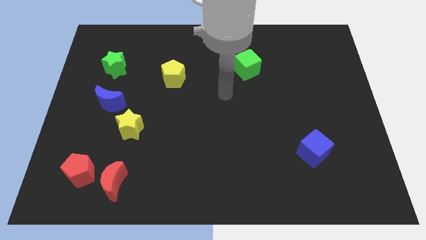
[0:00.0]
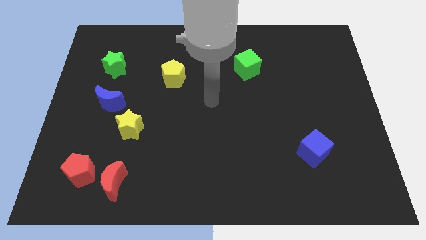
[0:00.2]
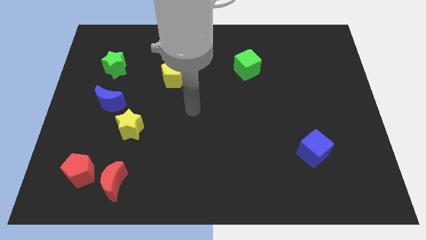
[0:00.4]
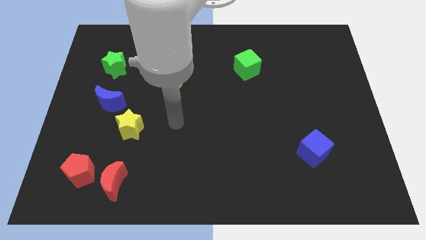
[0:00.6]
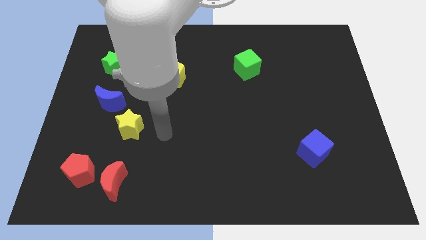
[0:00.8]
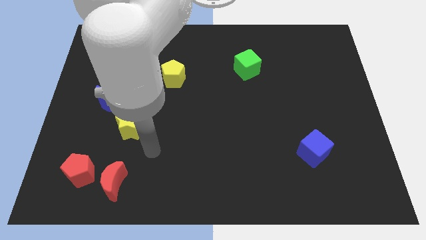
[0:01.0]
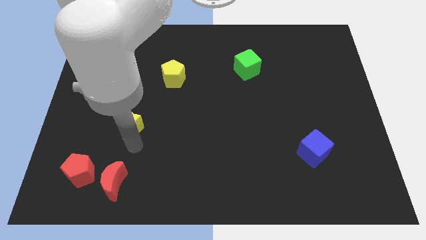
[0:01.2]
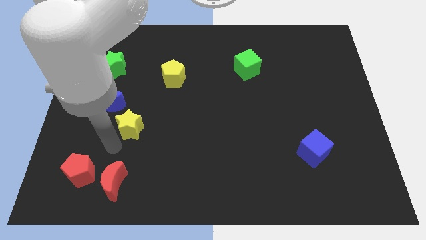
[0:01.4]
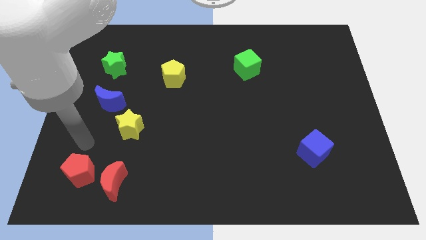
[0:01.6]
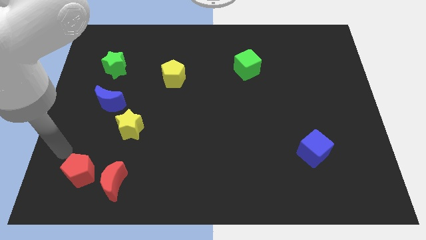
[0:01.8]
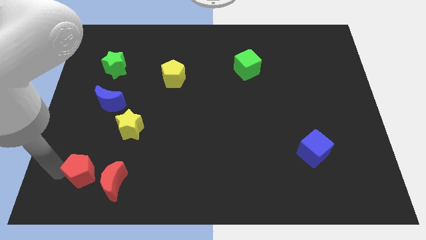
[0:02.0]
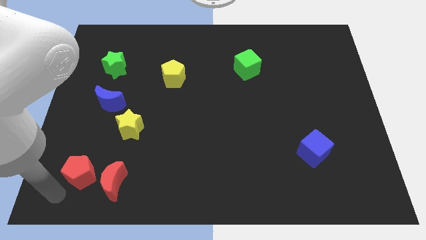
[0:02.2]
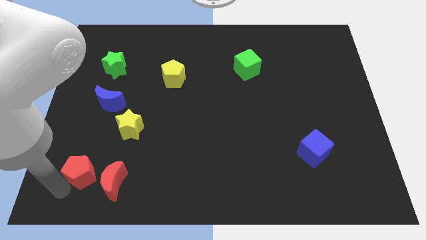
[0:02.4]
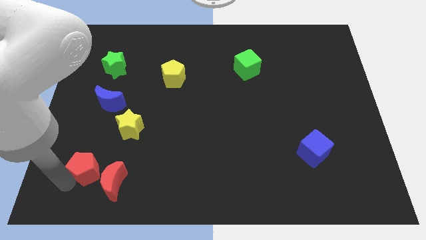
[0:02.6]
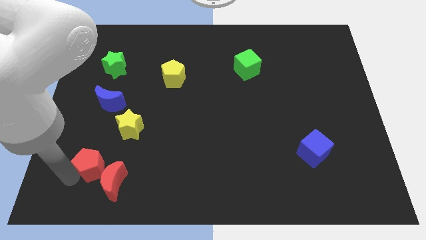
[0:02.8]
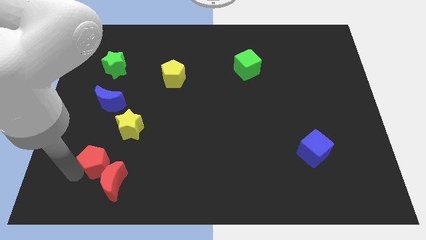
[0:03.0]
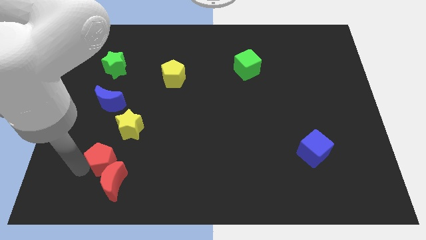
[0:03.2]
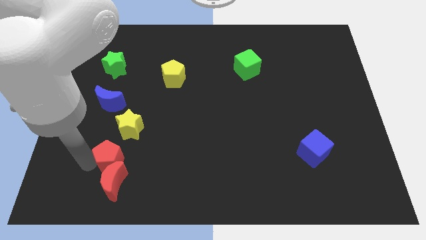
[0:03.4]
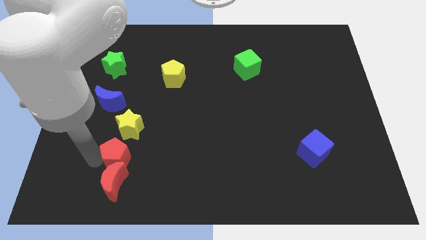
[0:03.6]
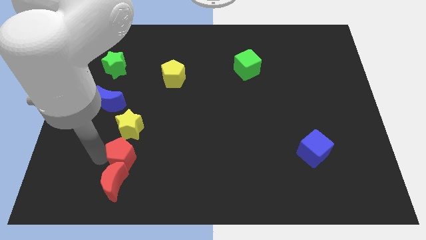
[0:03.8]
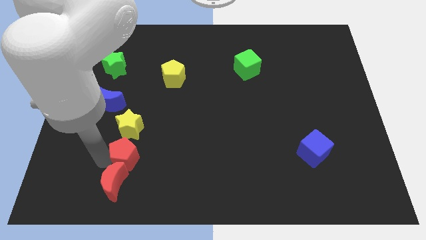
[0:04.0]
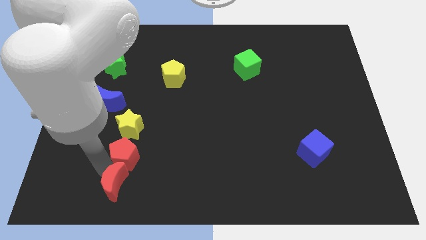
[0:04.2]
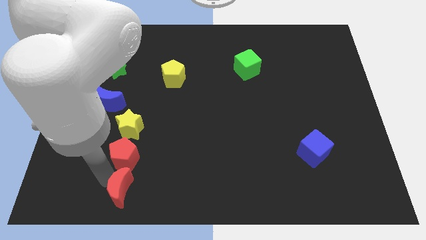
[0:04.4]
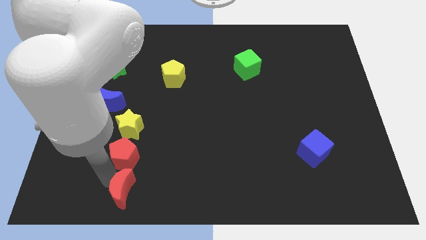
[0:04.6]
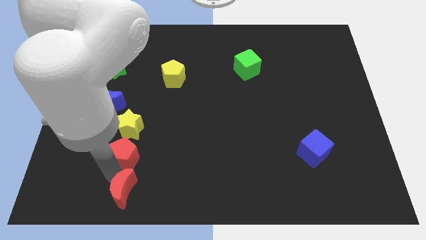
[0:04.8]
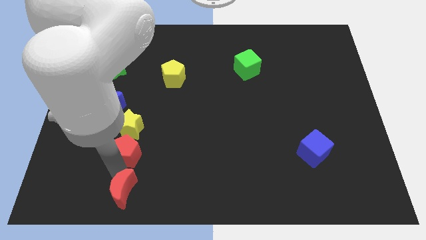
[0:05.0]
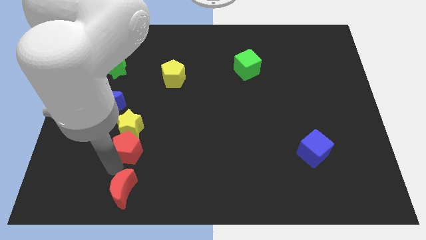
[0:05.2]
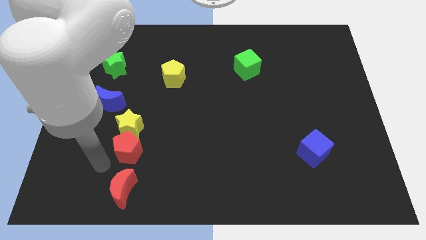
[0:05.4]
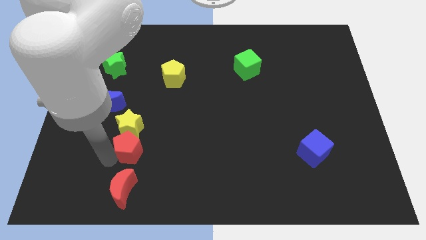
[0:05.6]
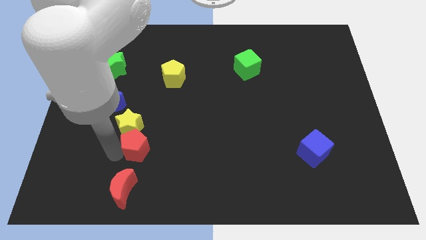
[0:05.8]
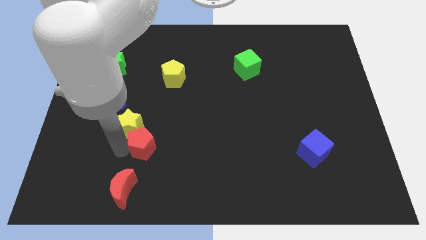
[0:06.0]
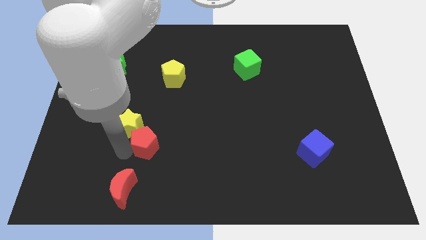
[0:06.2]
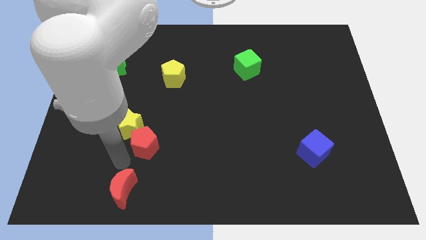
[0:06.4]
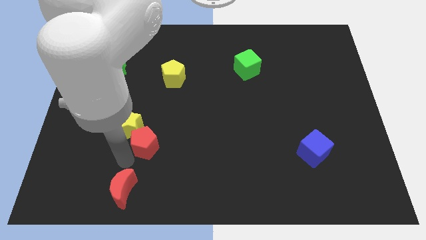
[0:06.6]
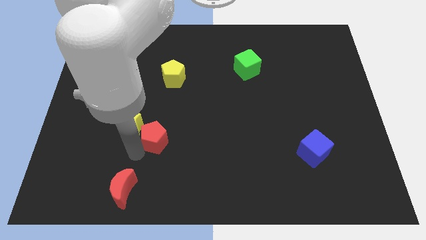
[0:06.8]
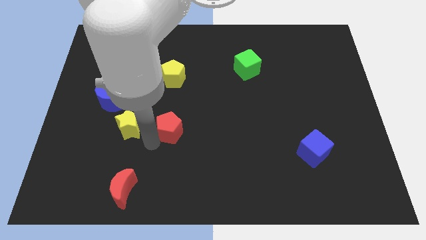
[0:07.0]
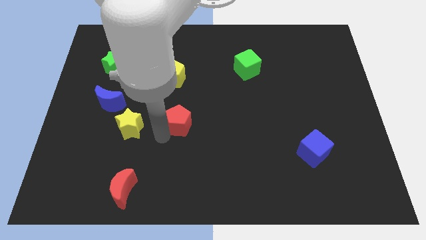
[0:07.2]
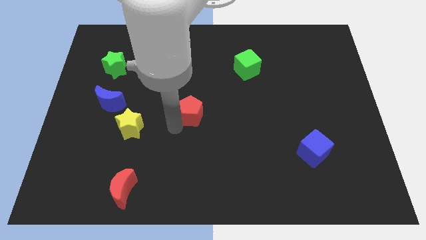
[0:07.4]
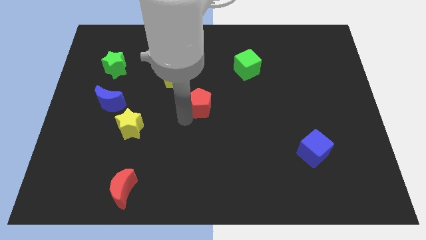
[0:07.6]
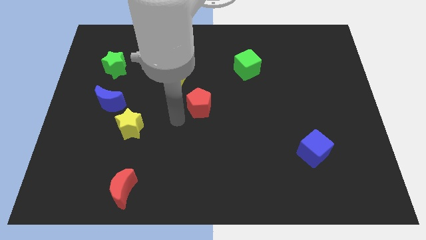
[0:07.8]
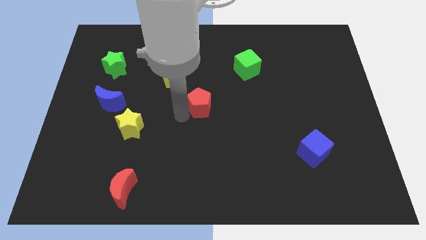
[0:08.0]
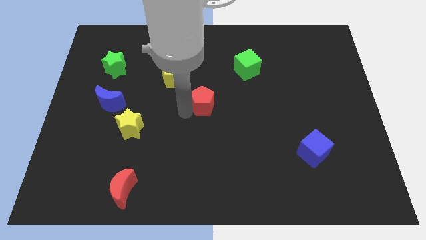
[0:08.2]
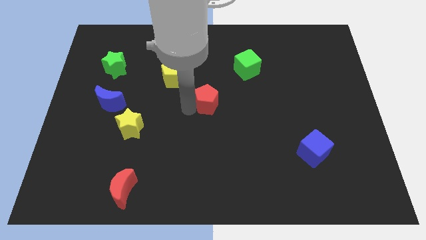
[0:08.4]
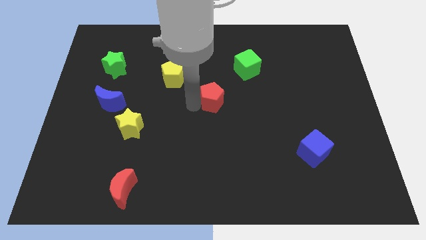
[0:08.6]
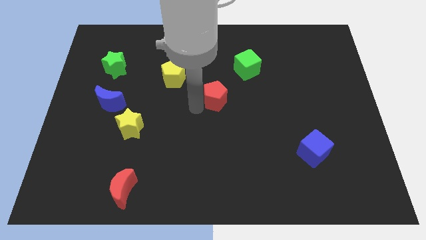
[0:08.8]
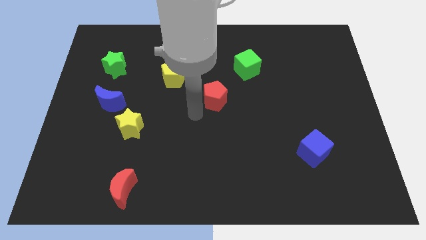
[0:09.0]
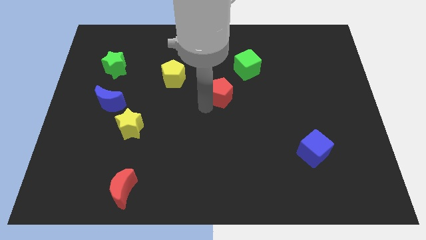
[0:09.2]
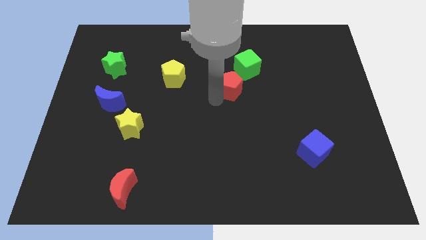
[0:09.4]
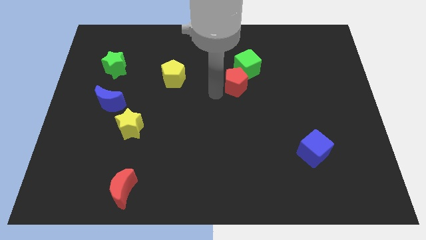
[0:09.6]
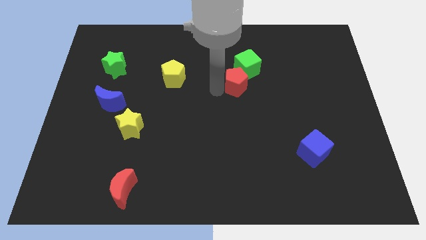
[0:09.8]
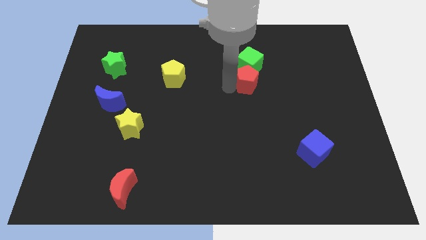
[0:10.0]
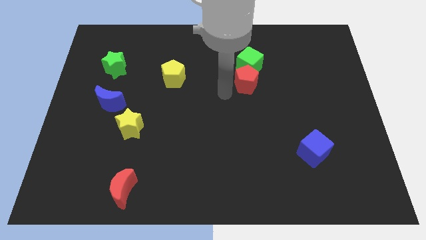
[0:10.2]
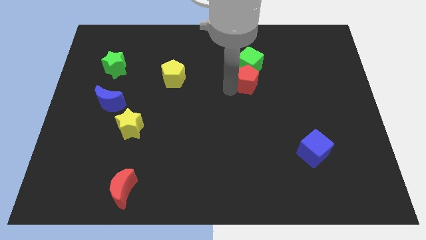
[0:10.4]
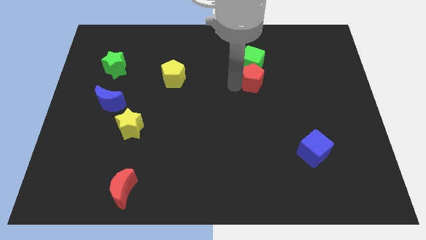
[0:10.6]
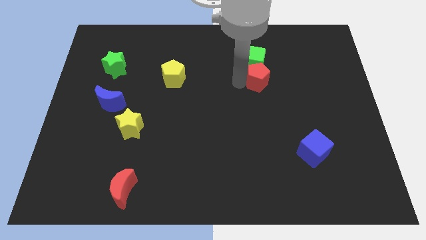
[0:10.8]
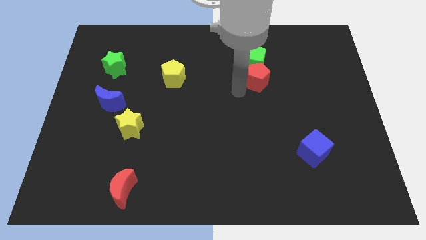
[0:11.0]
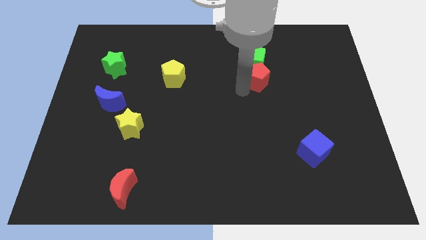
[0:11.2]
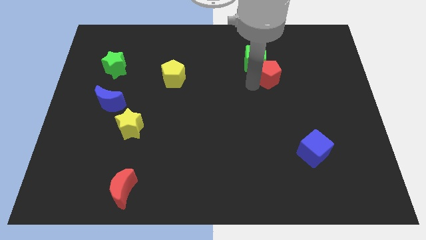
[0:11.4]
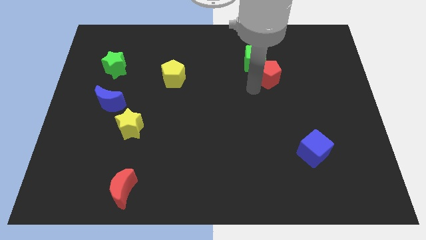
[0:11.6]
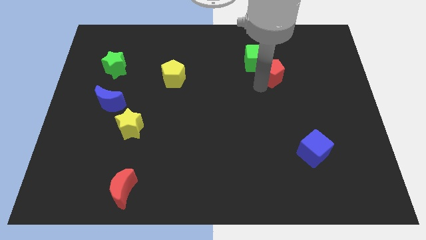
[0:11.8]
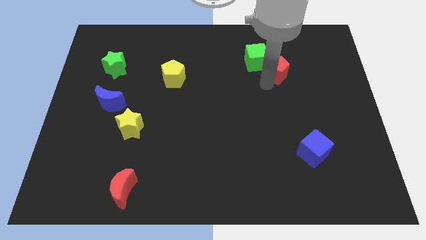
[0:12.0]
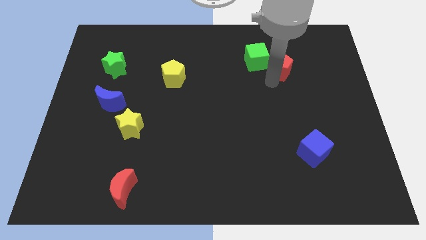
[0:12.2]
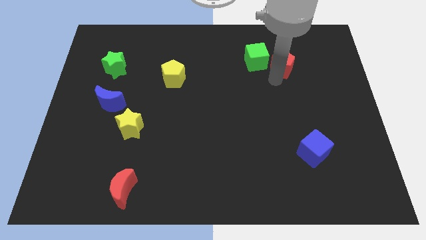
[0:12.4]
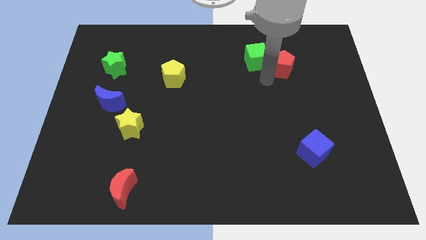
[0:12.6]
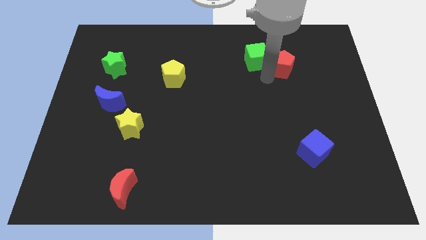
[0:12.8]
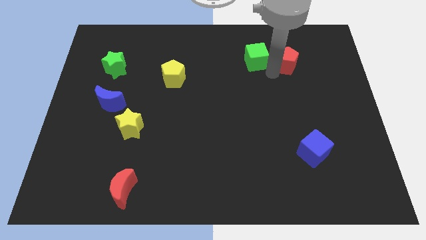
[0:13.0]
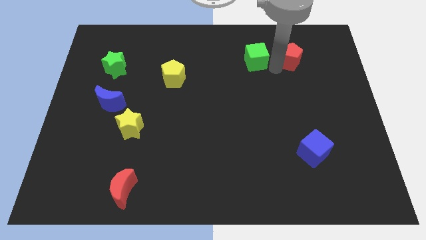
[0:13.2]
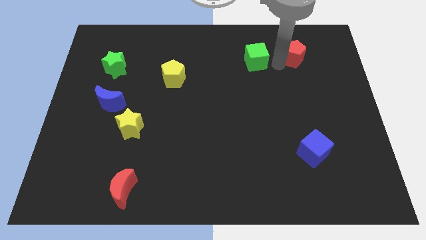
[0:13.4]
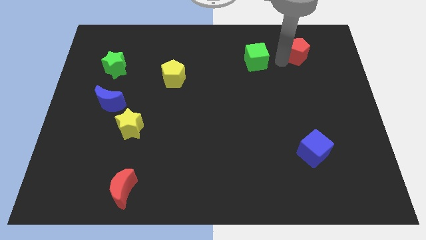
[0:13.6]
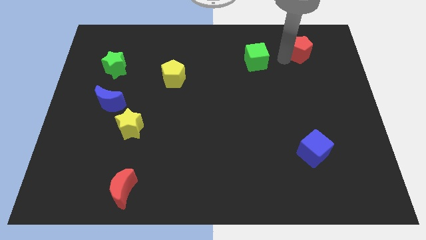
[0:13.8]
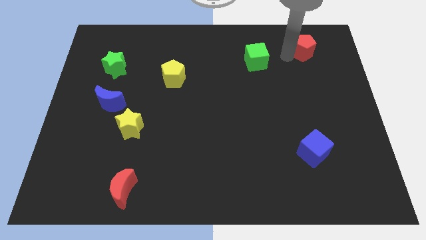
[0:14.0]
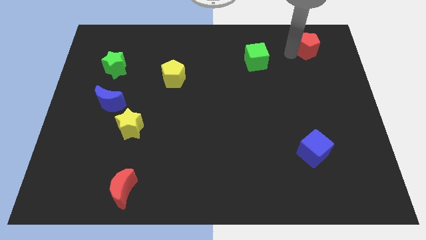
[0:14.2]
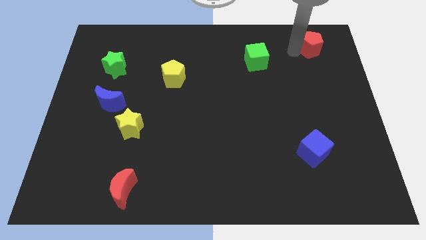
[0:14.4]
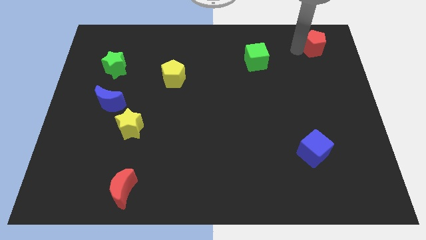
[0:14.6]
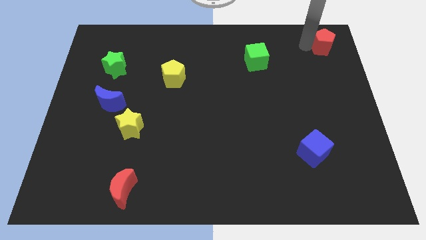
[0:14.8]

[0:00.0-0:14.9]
put the red pentagon to the upper right corner
